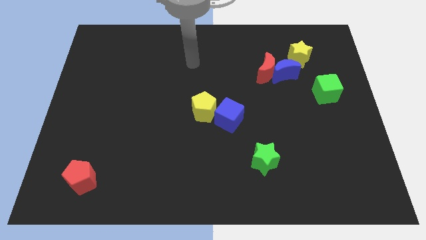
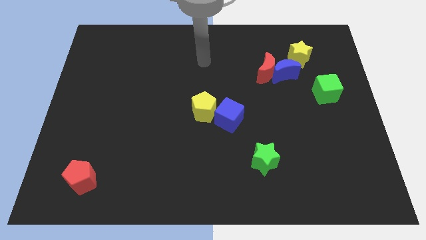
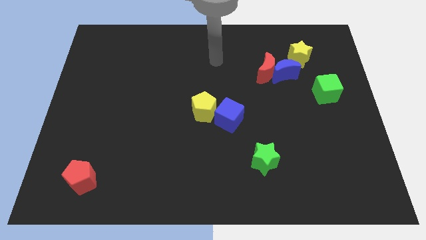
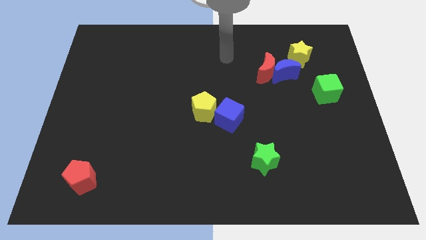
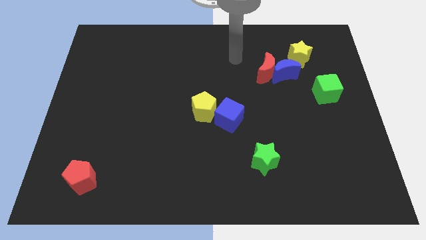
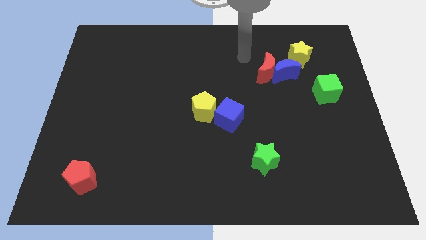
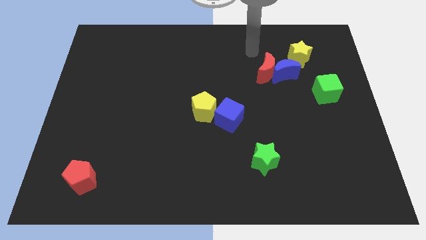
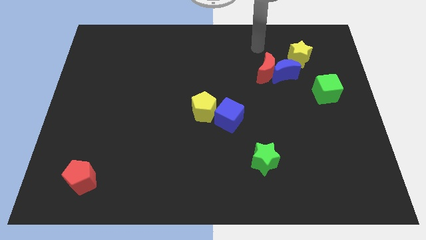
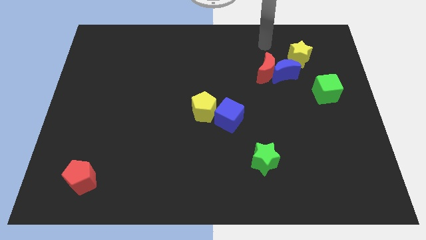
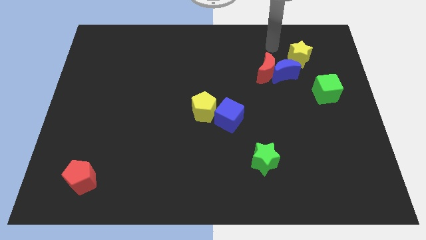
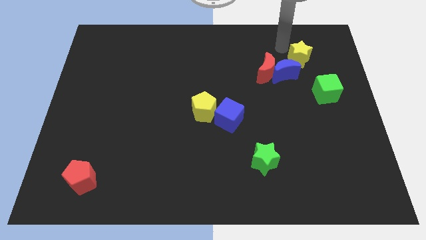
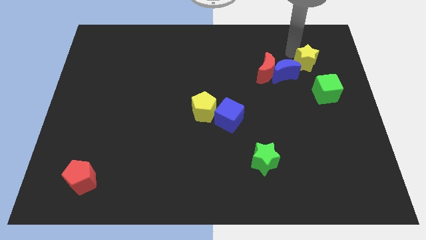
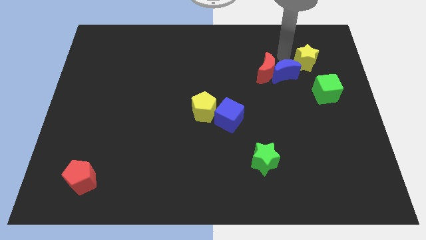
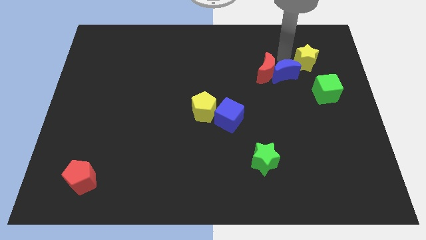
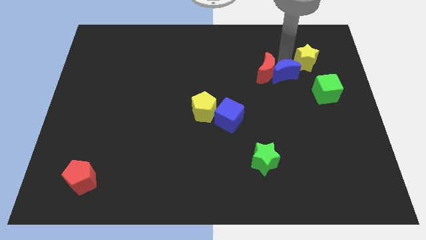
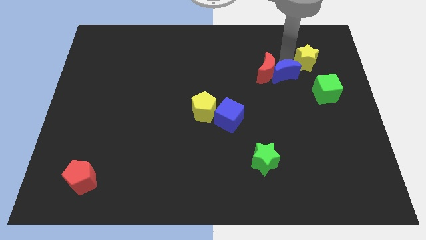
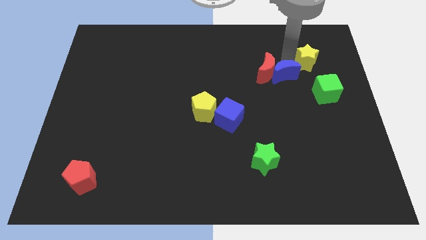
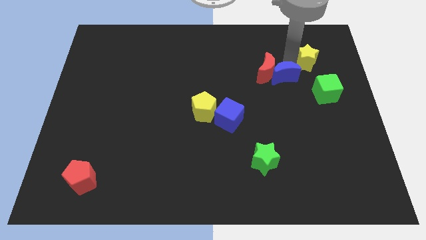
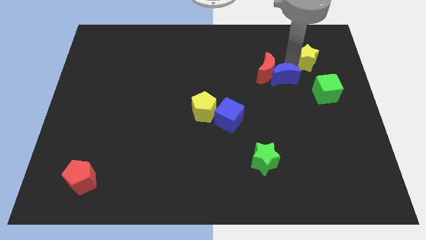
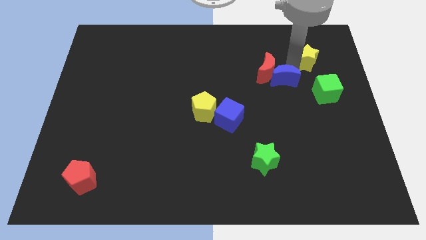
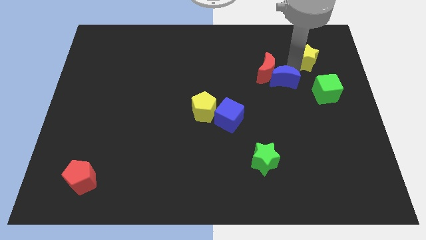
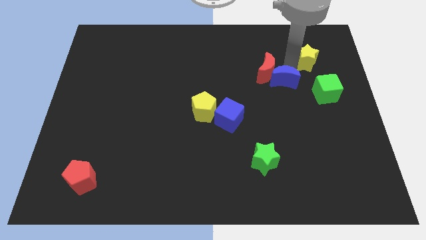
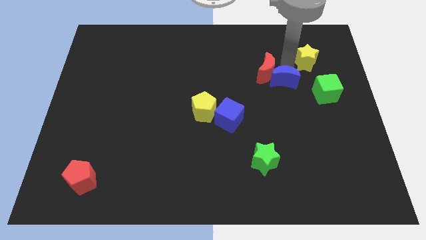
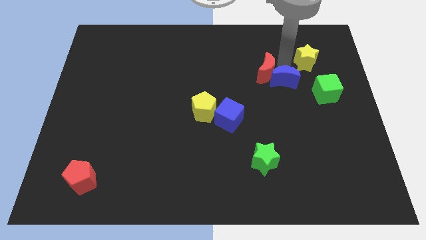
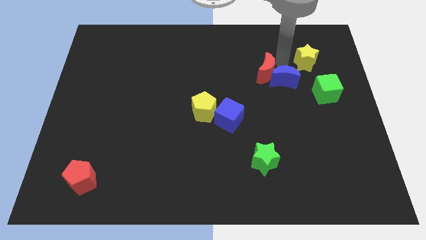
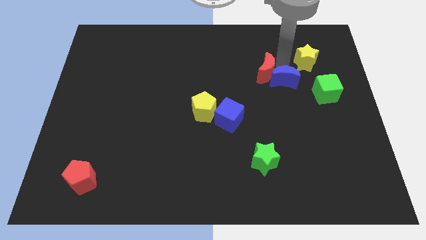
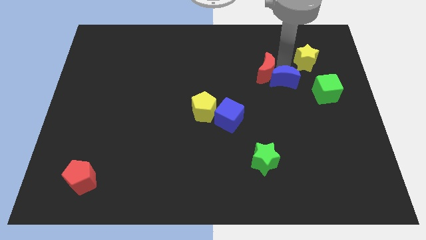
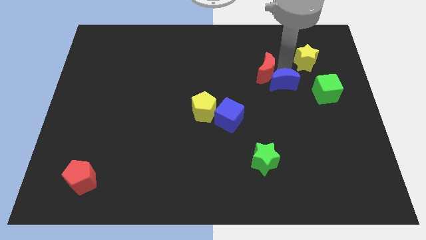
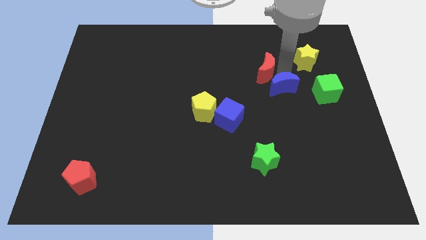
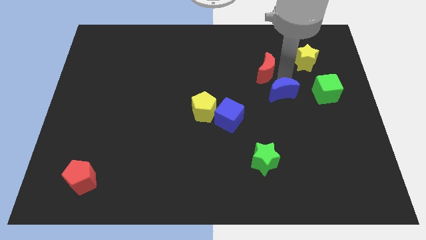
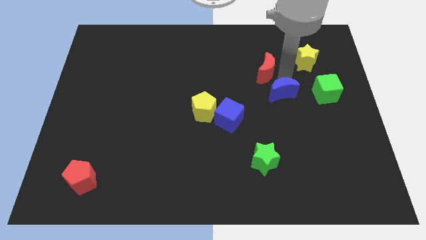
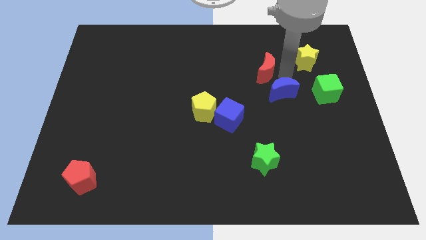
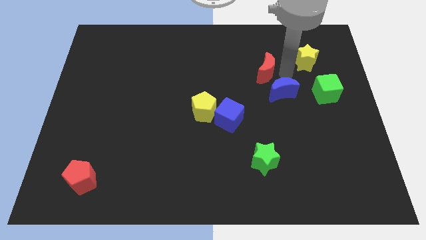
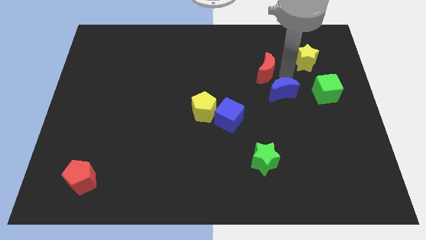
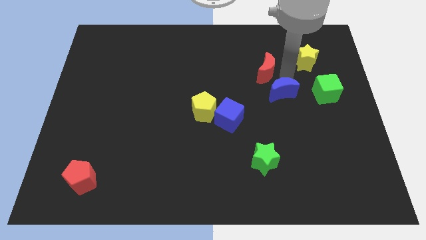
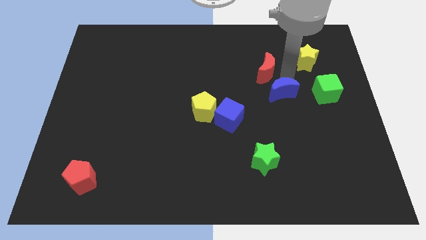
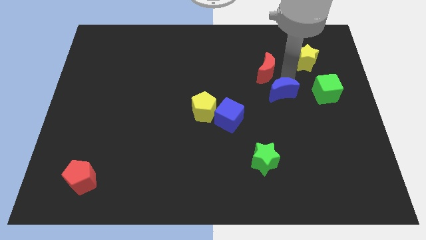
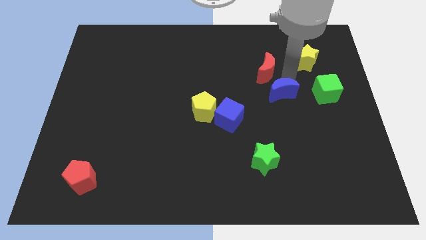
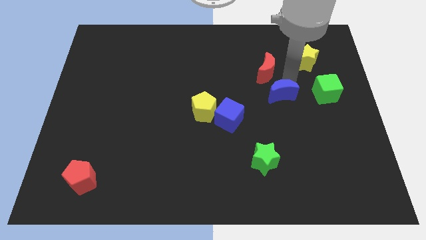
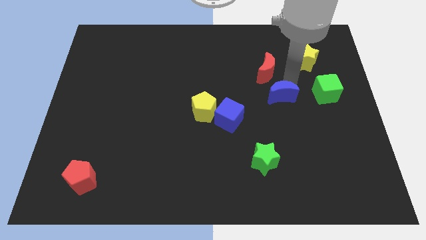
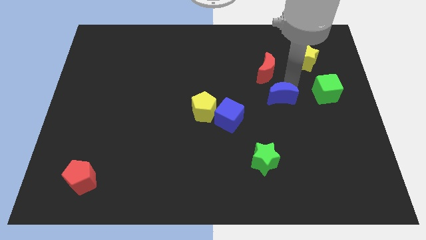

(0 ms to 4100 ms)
pull the blue moon apart from the red moon and yellow star

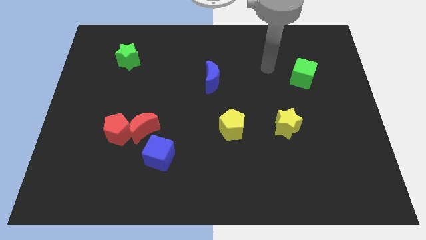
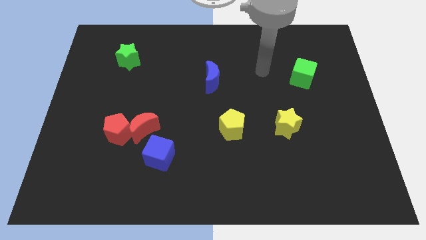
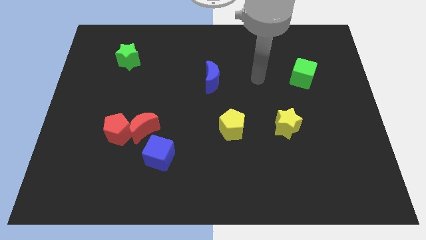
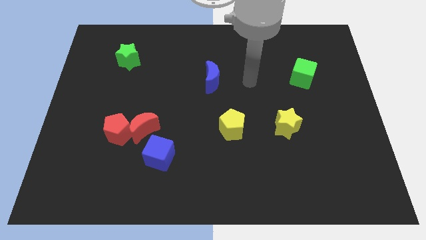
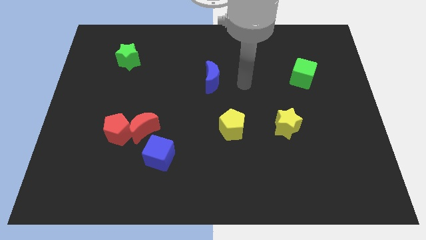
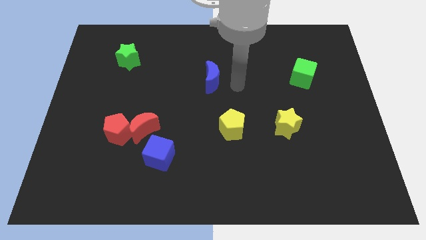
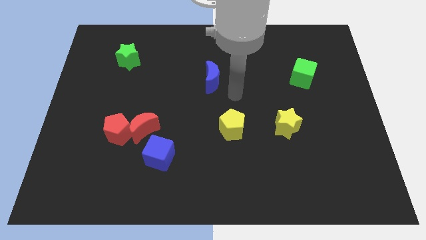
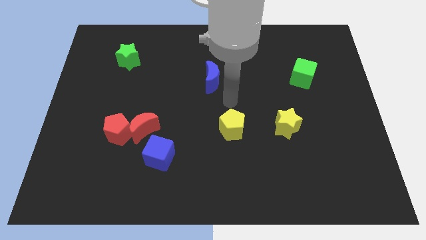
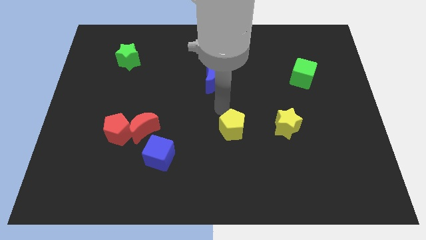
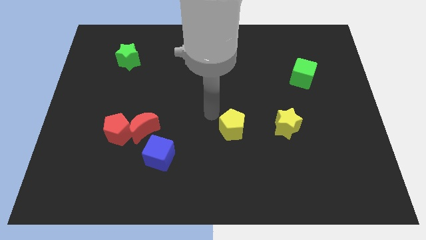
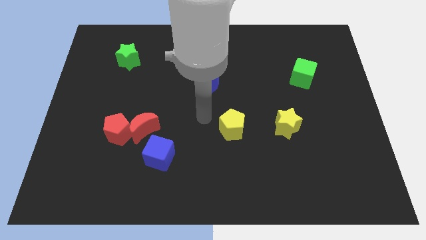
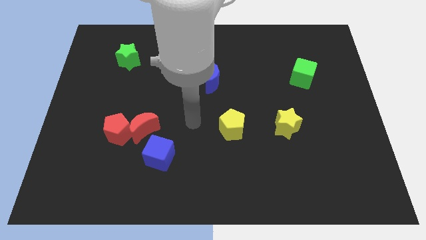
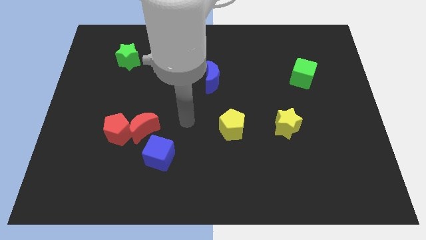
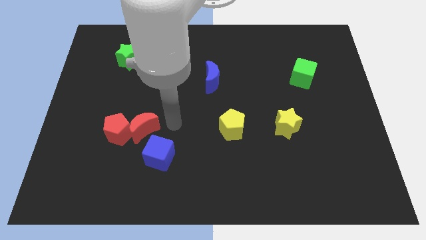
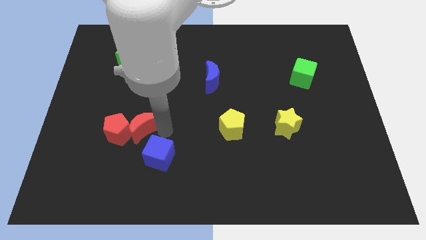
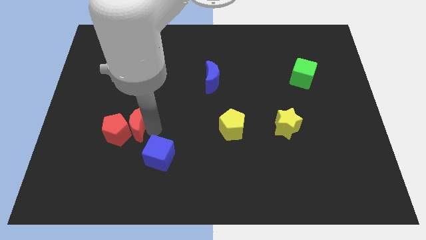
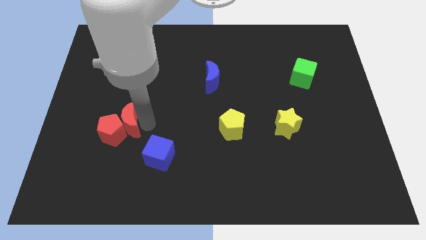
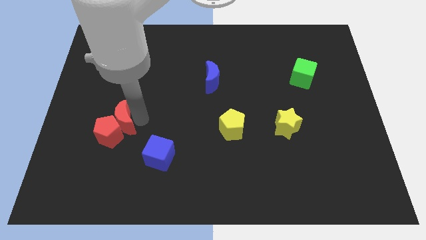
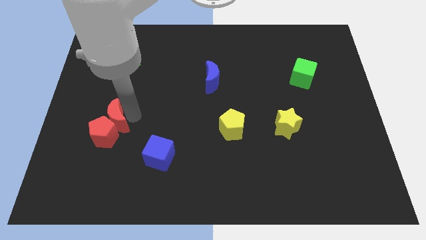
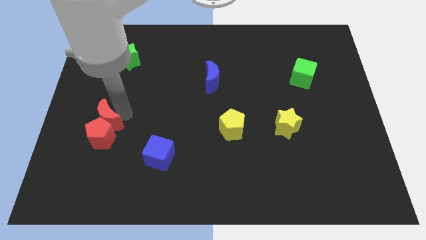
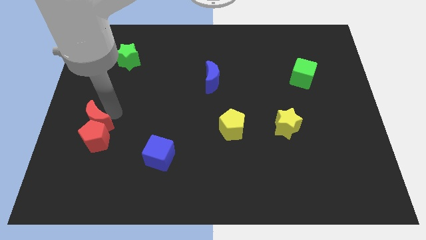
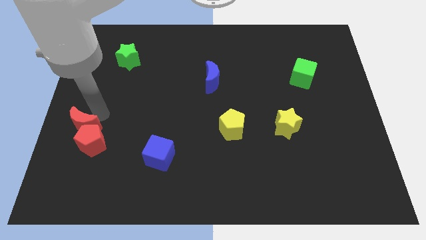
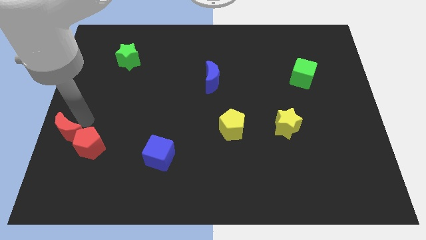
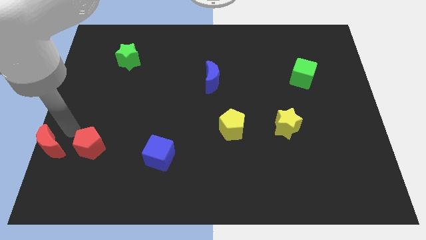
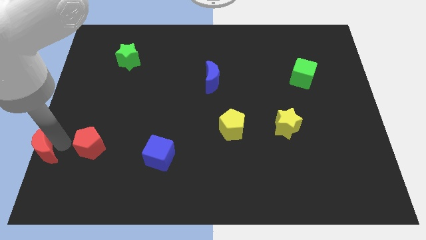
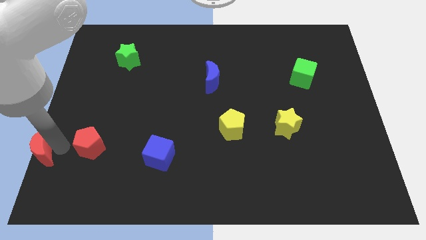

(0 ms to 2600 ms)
separate the red pentagon from the red moon

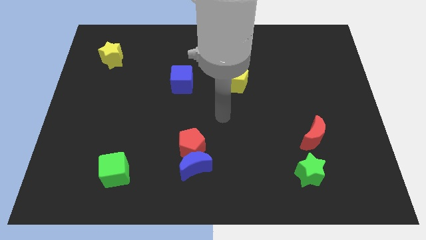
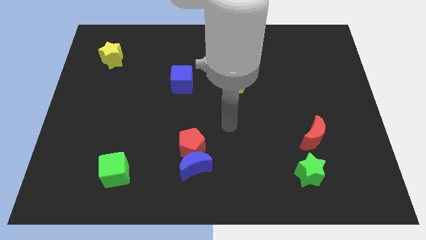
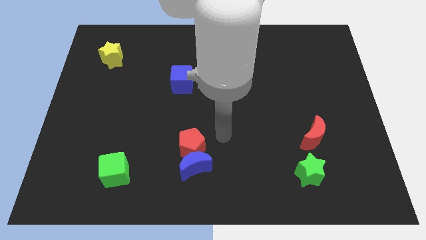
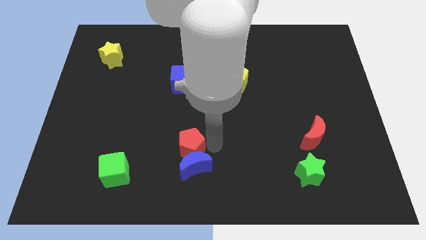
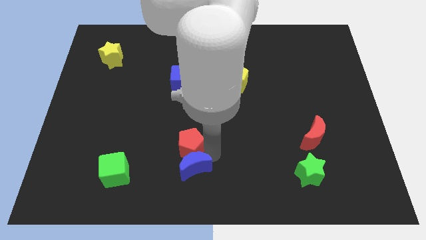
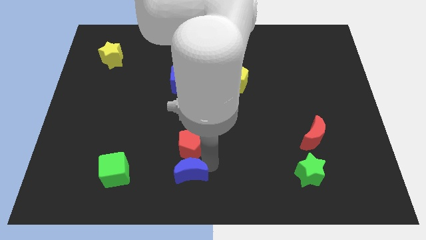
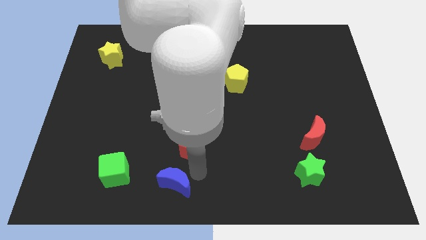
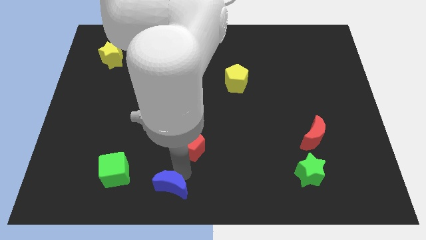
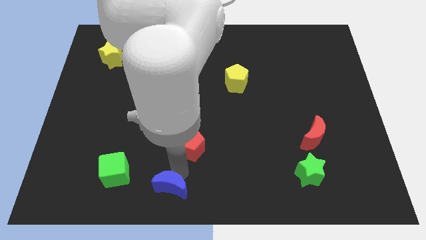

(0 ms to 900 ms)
move the red pentagon away from the blue moon

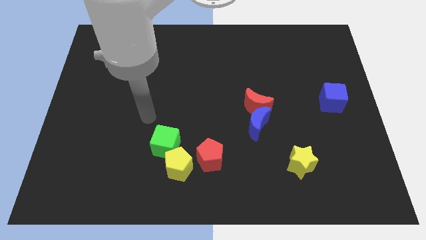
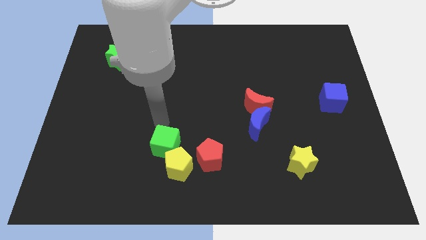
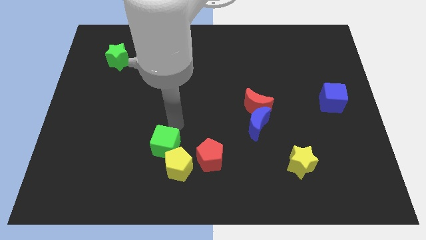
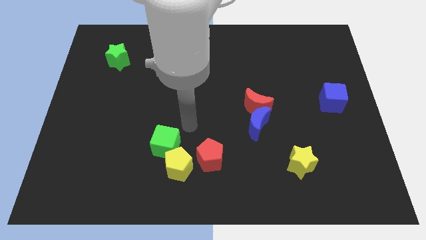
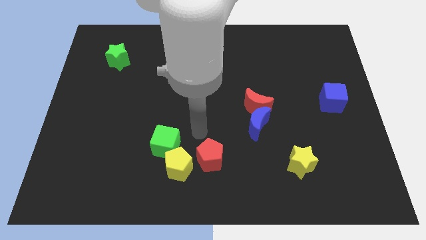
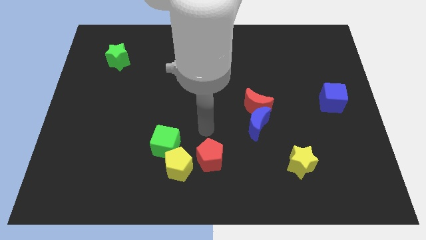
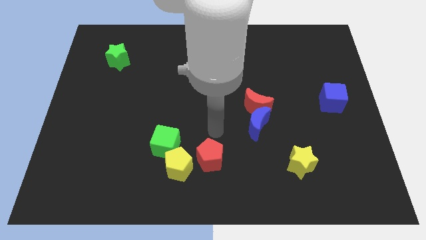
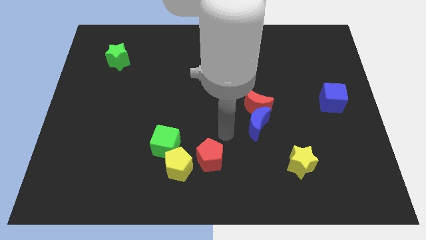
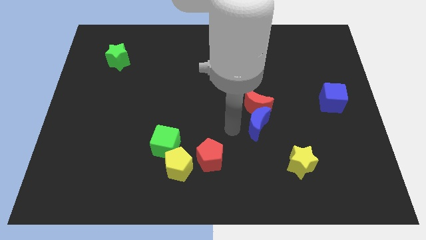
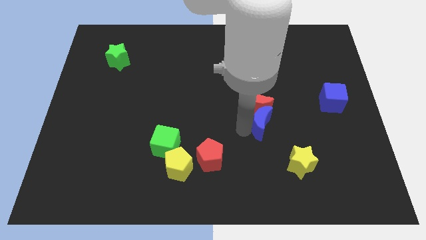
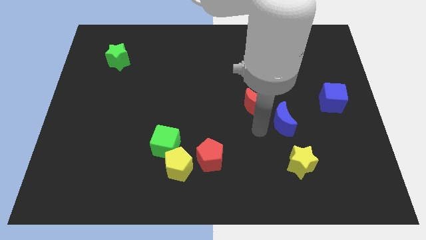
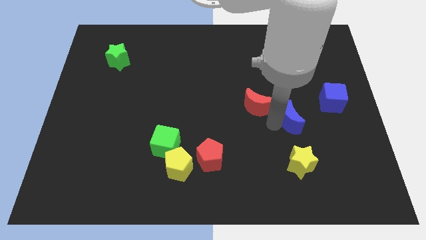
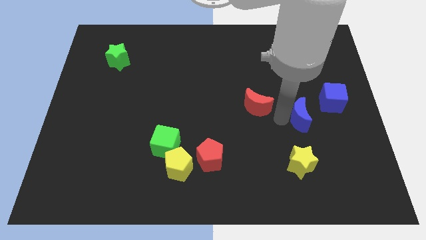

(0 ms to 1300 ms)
separate the red moon from the blue moon

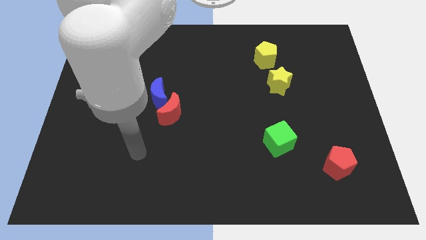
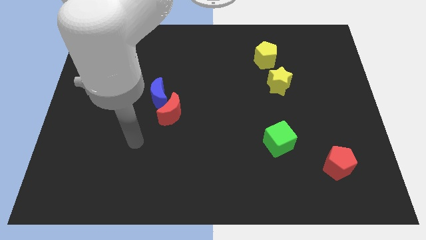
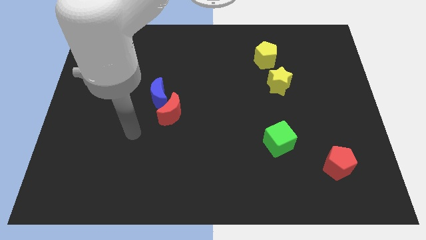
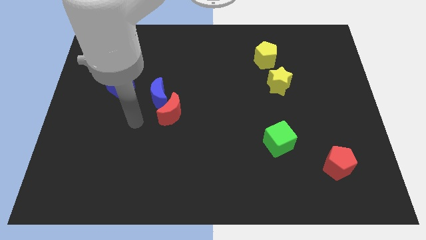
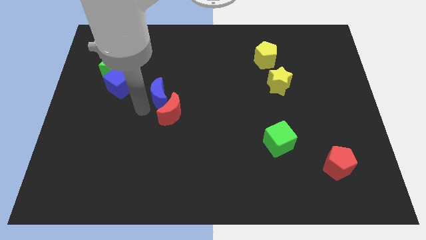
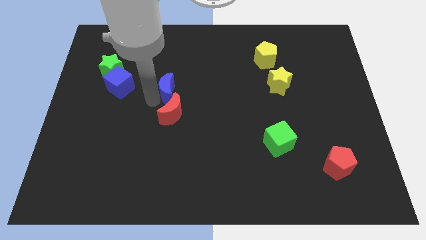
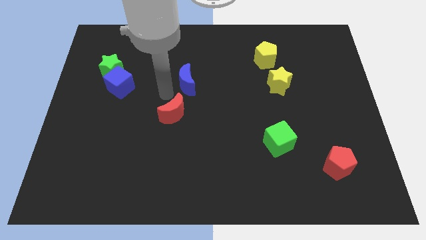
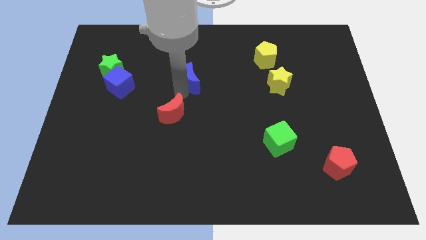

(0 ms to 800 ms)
pull the red moon apart from the blue moon
